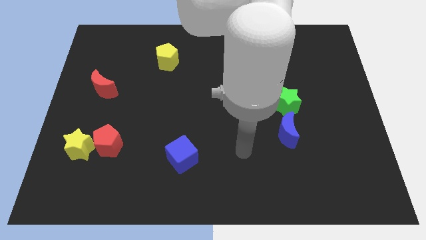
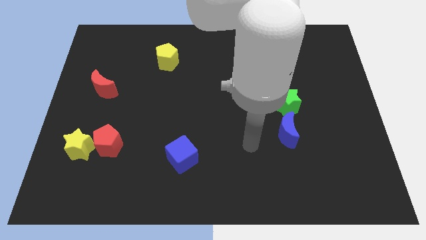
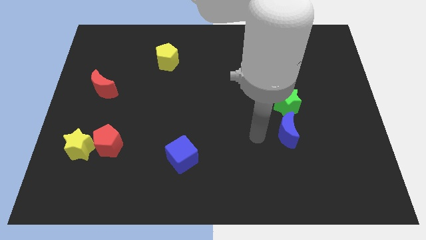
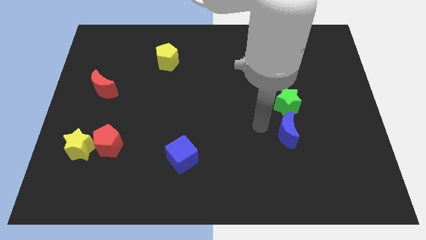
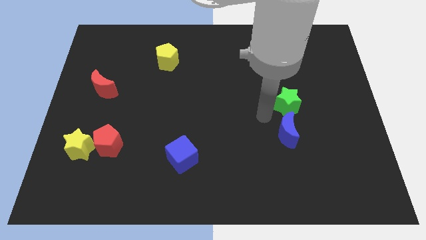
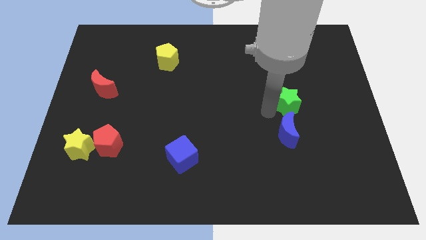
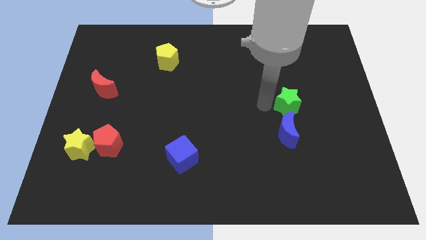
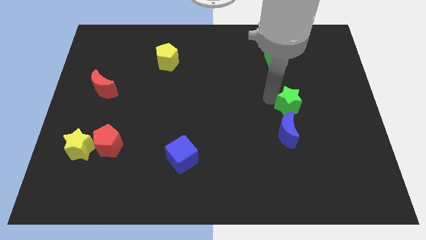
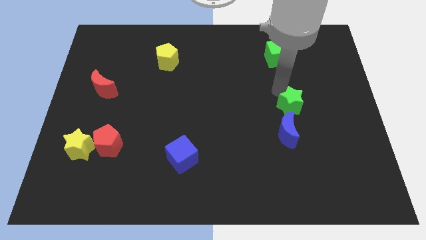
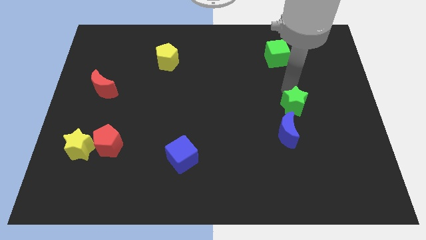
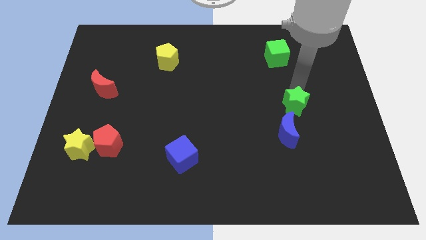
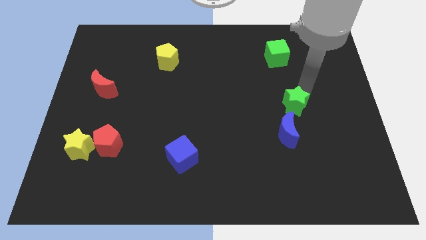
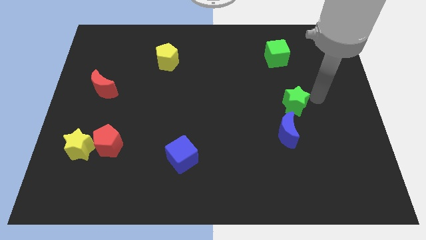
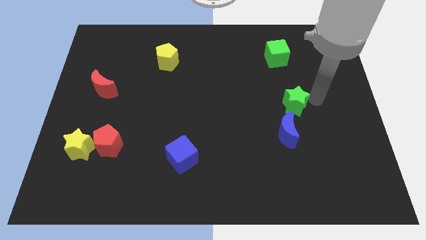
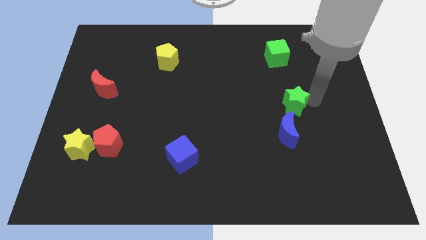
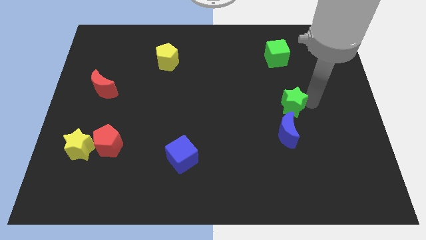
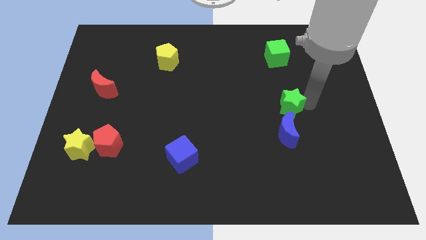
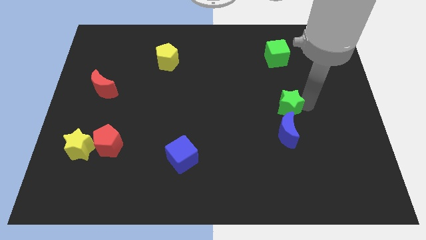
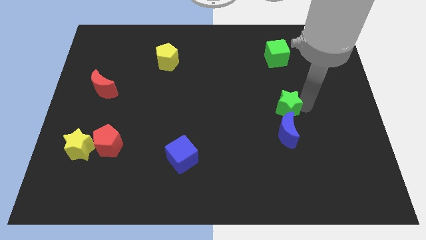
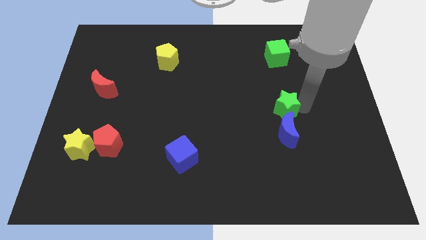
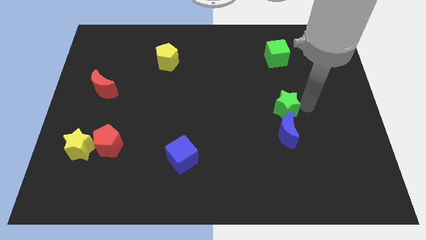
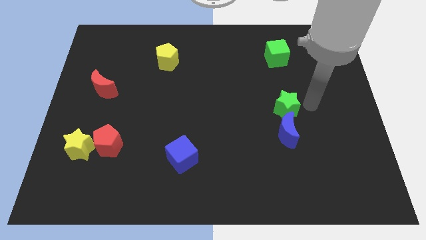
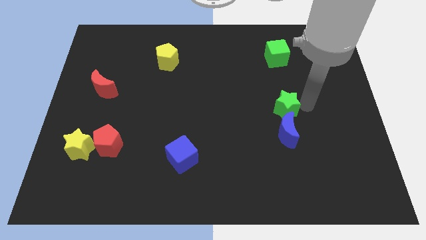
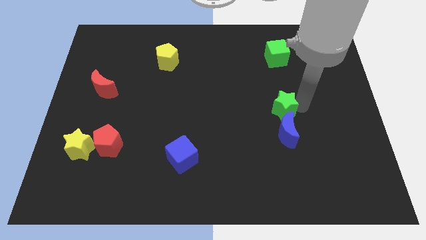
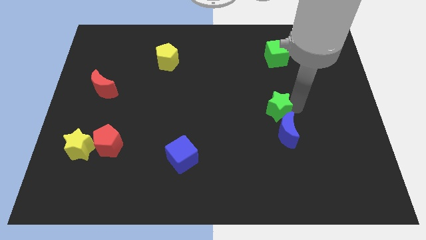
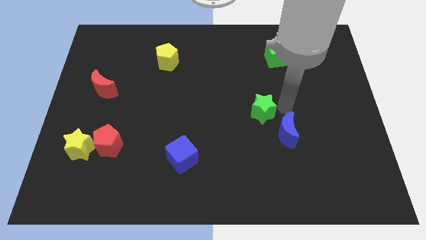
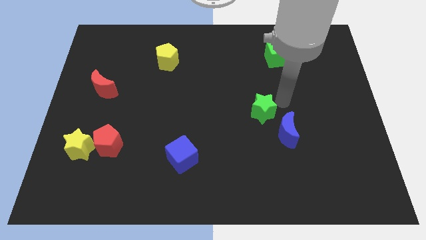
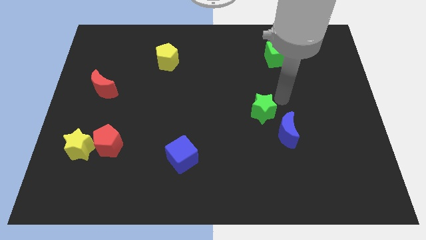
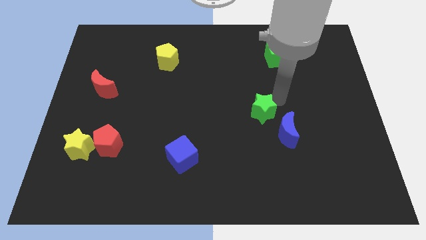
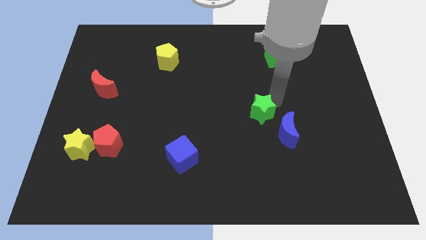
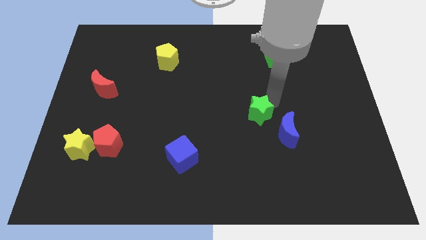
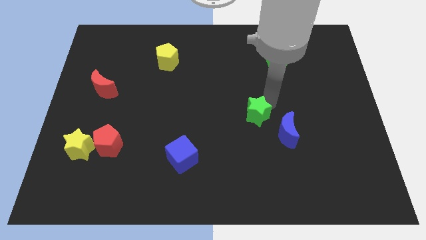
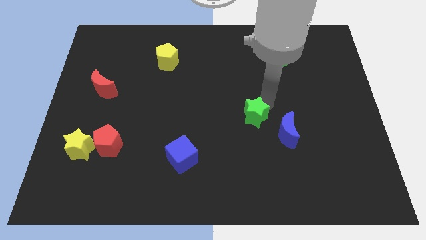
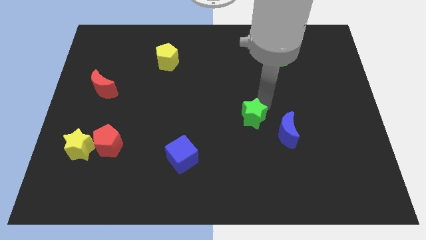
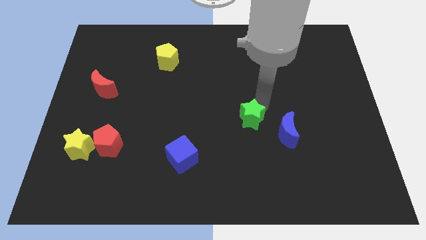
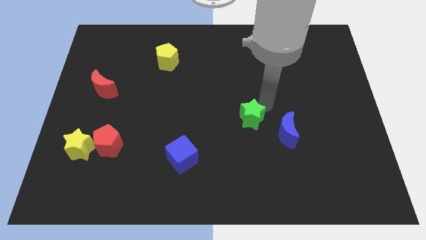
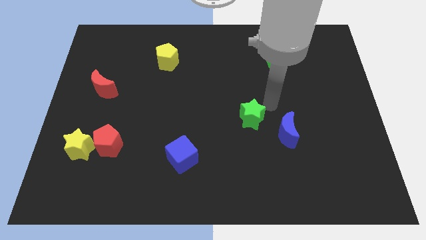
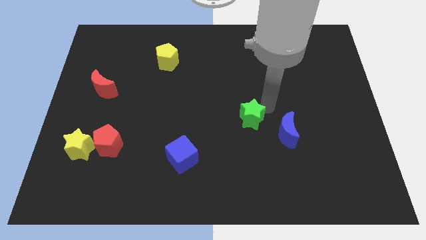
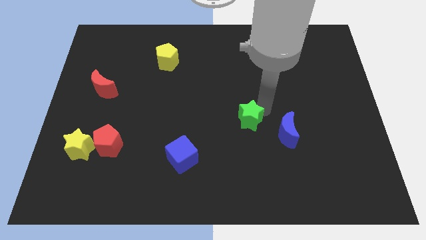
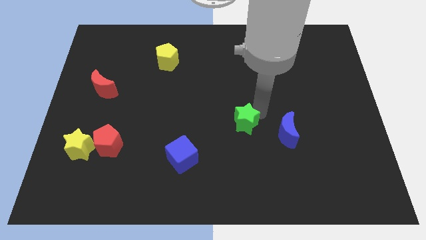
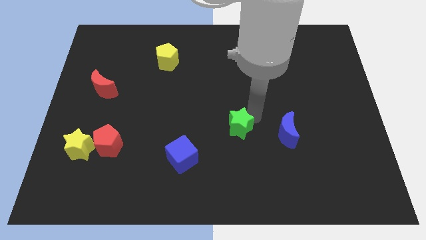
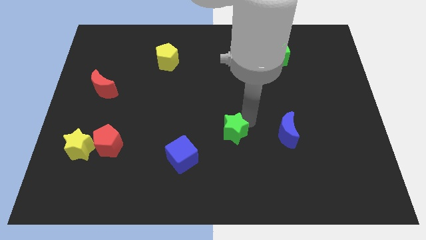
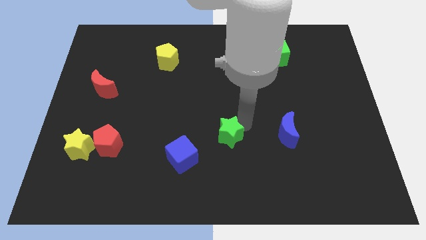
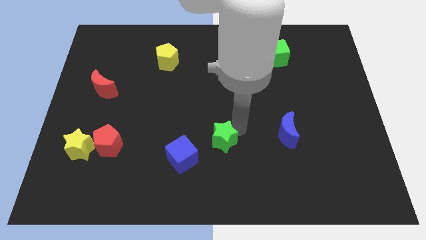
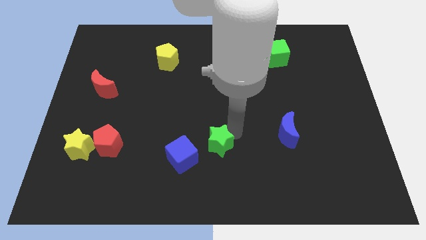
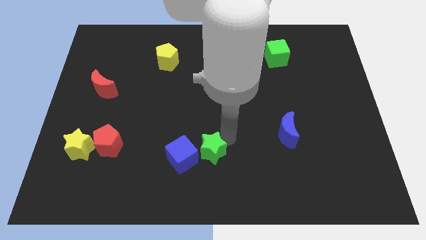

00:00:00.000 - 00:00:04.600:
put the green star to the blue cube

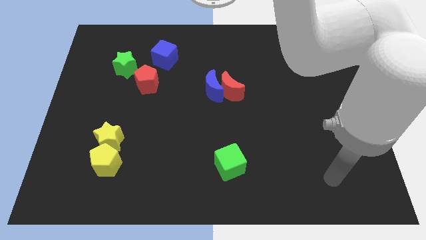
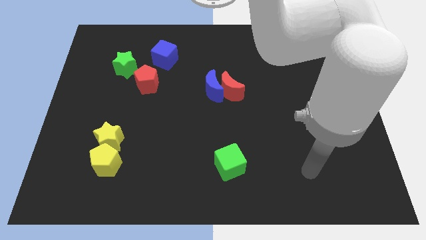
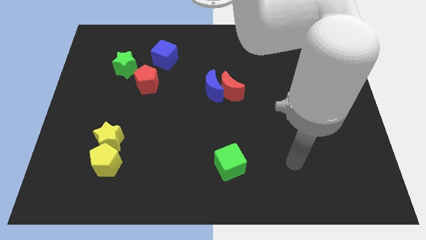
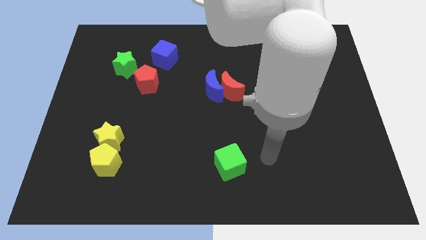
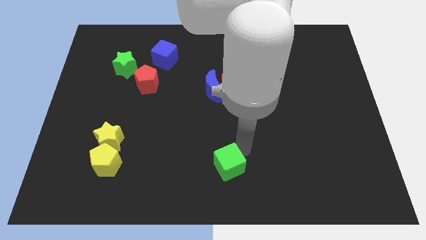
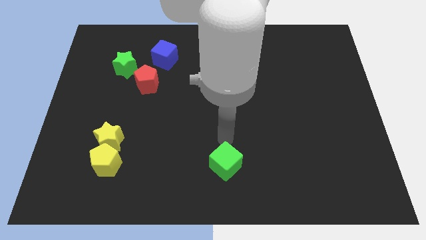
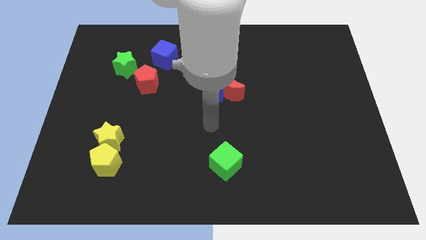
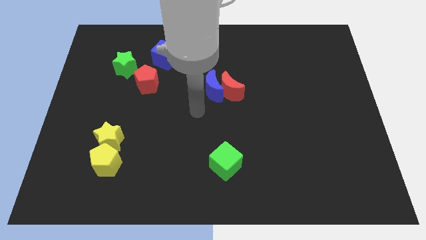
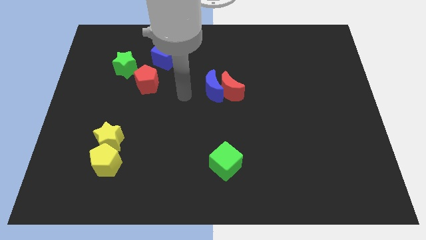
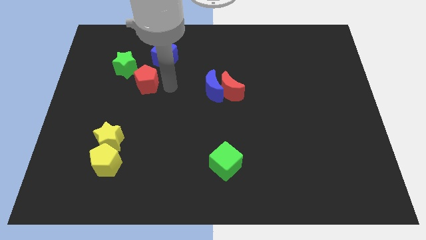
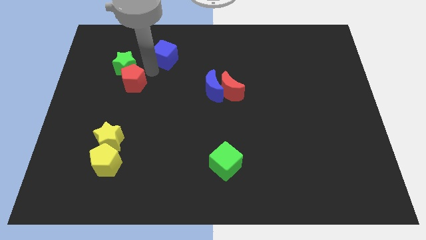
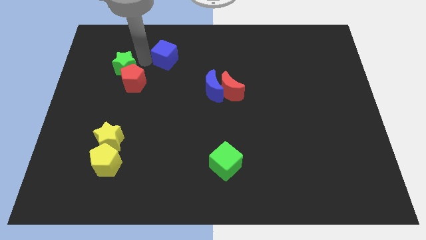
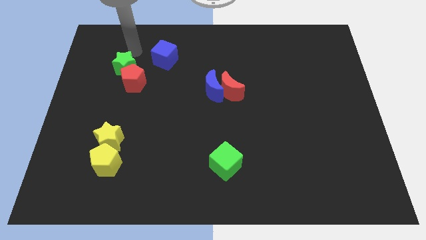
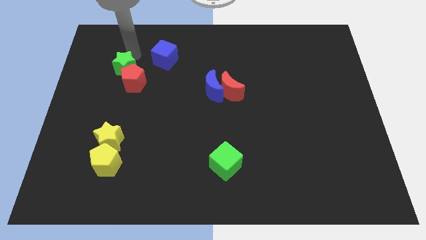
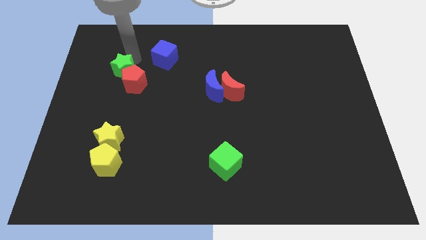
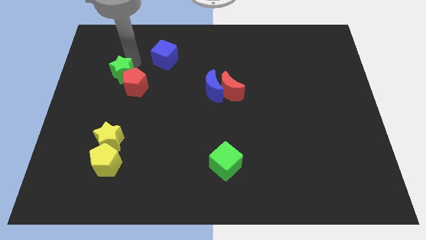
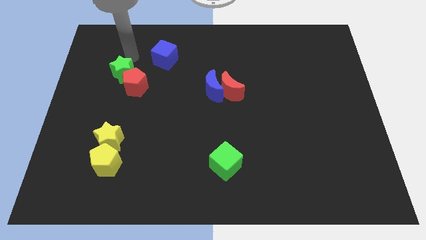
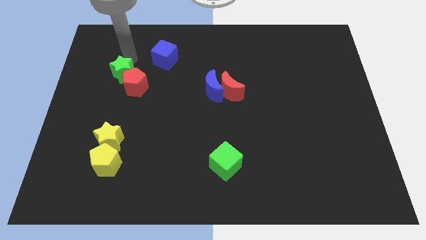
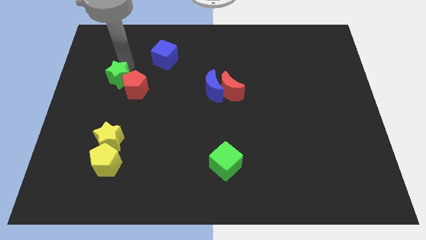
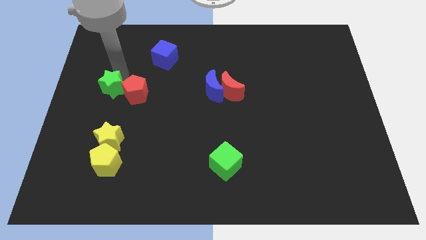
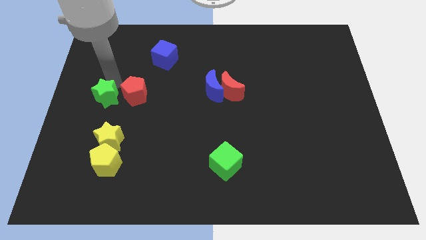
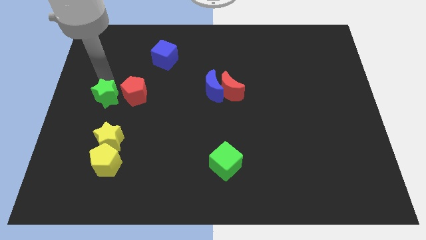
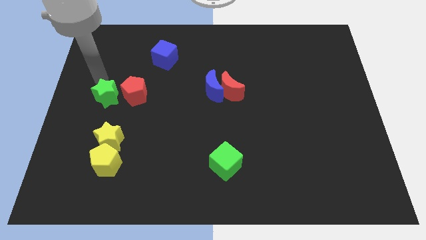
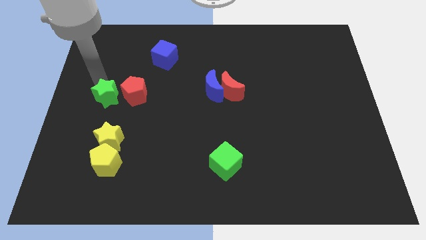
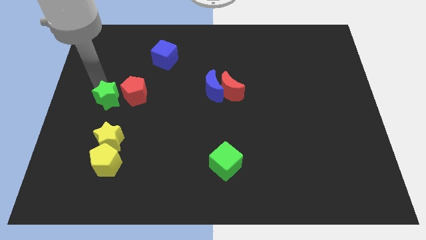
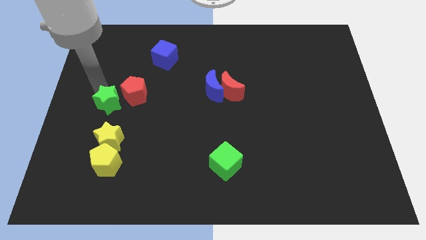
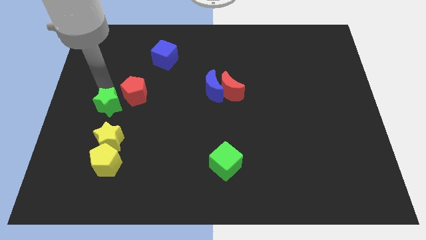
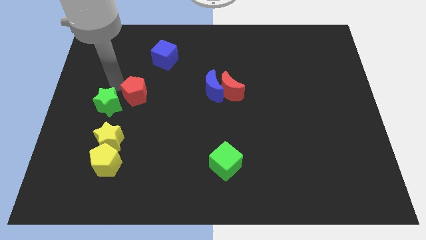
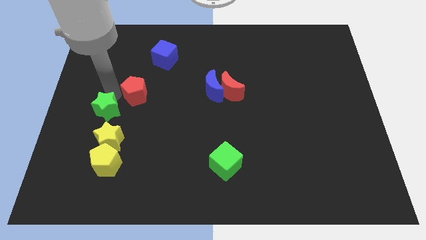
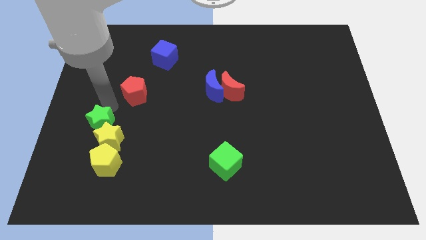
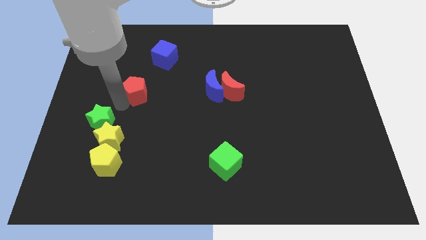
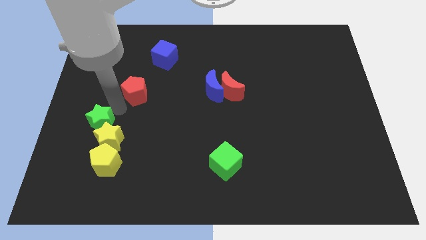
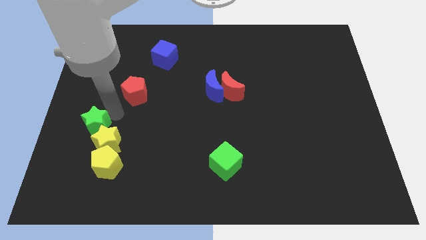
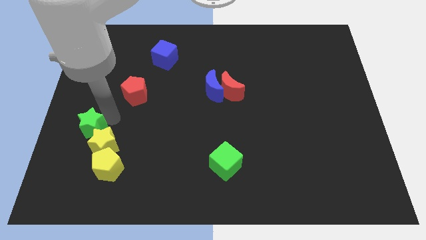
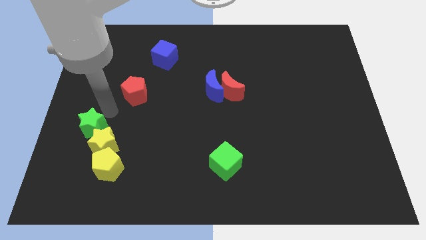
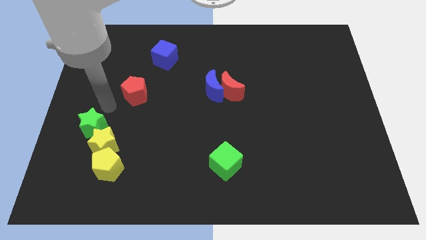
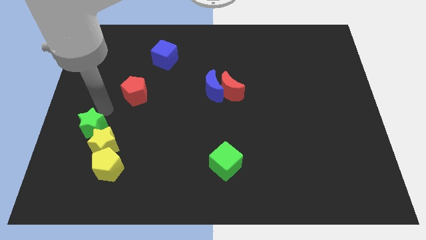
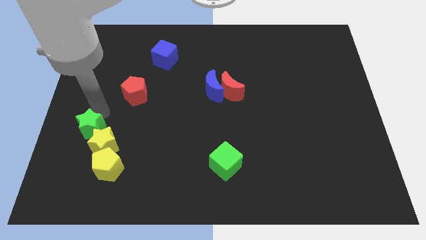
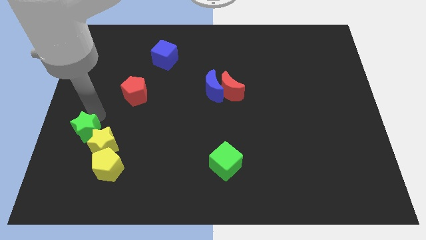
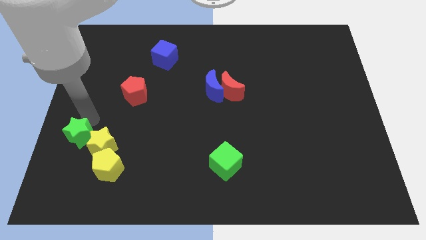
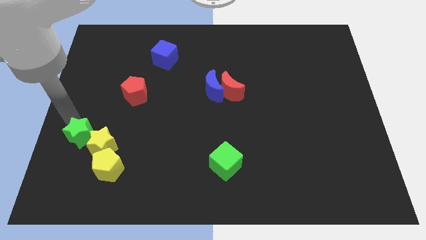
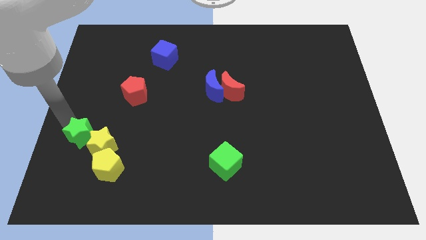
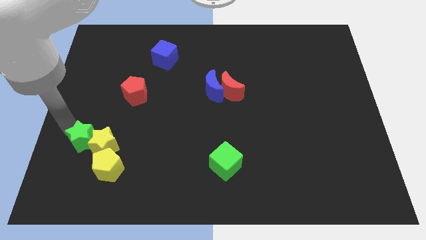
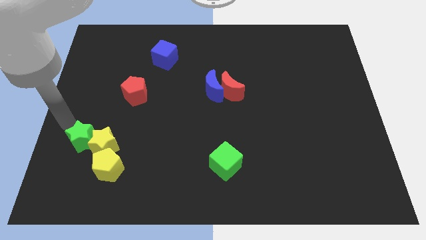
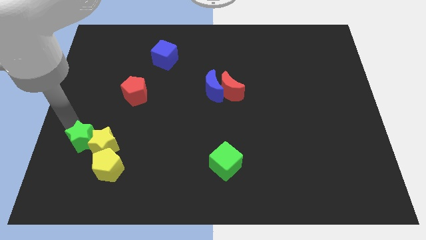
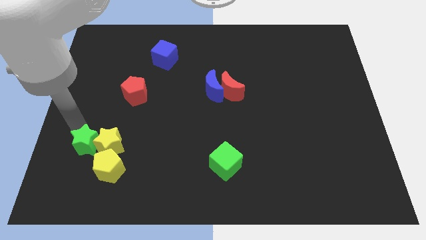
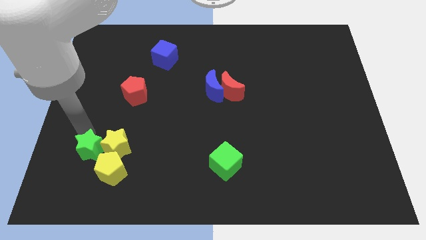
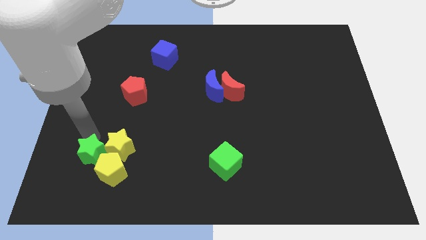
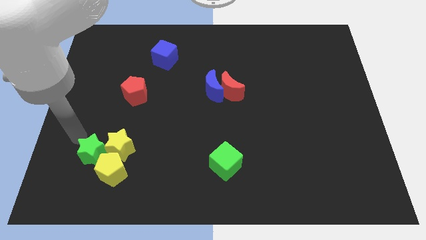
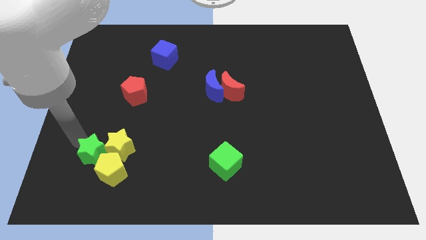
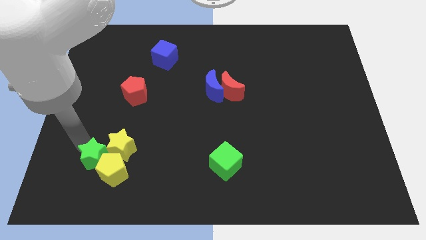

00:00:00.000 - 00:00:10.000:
slide the green star next to the yellow pentagon
